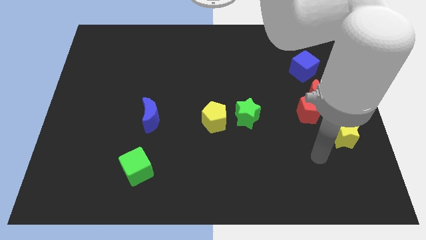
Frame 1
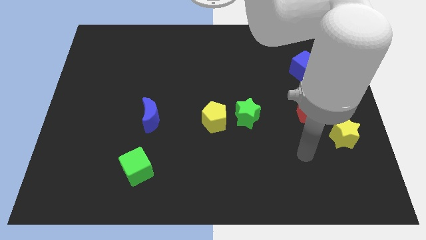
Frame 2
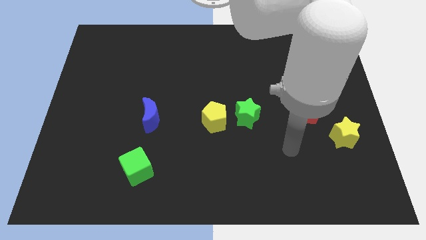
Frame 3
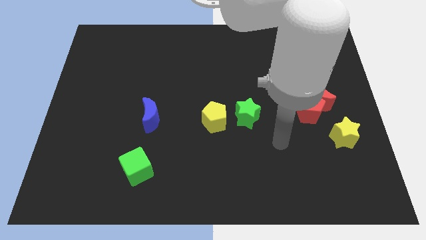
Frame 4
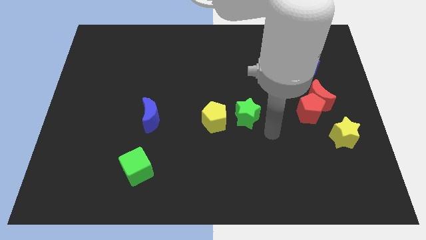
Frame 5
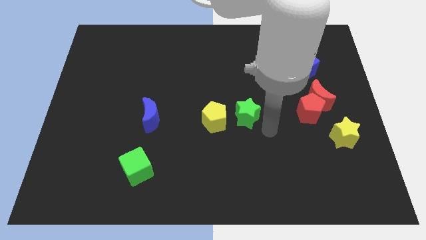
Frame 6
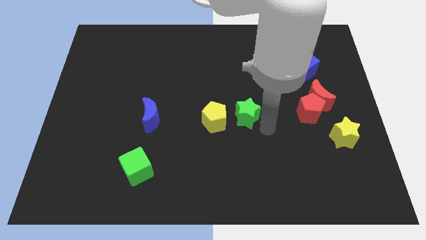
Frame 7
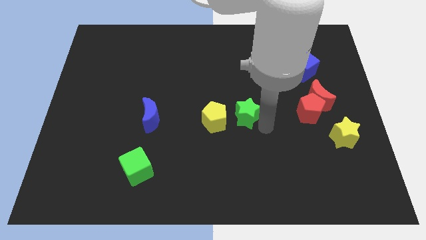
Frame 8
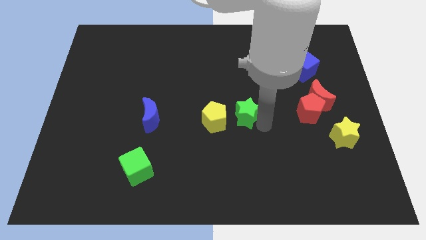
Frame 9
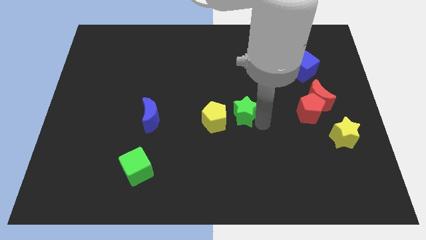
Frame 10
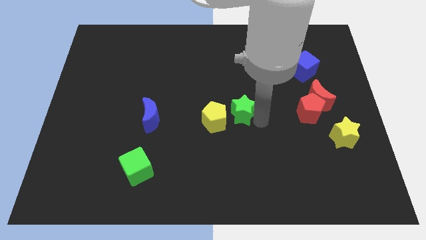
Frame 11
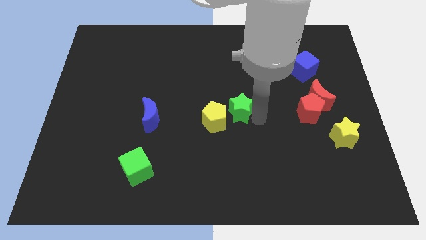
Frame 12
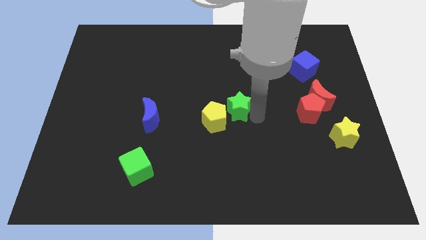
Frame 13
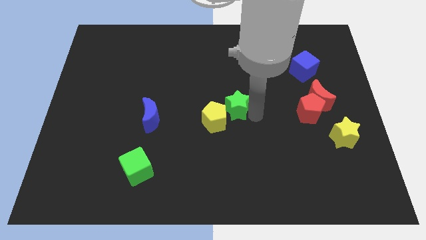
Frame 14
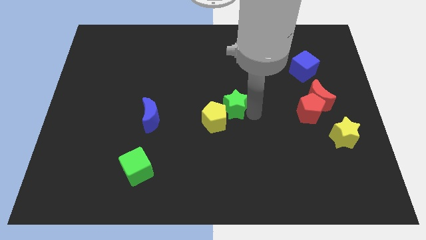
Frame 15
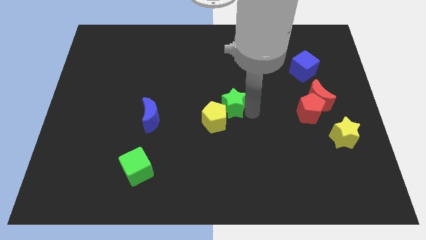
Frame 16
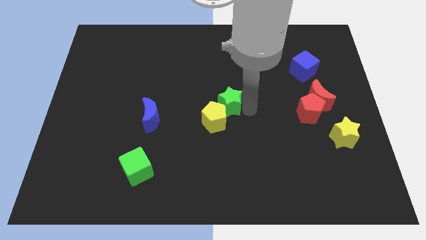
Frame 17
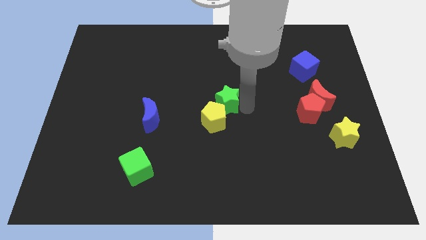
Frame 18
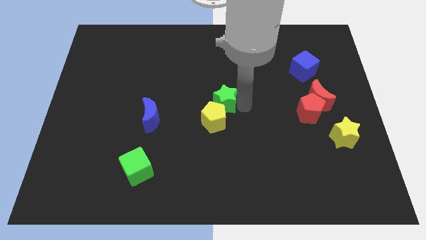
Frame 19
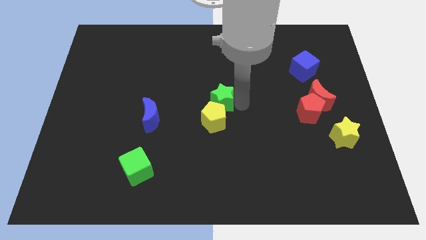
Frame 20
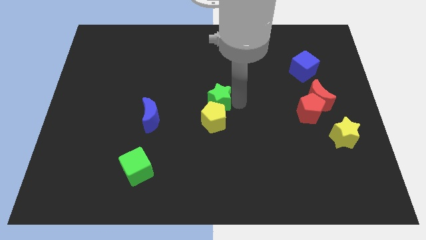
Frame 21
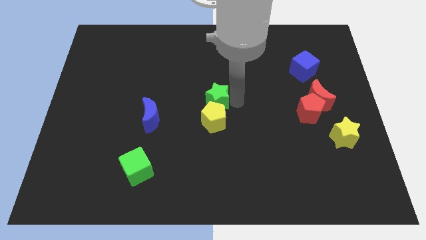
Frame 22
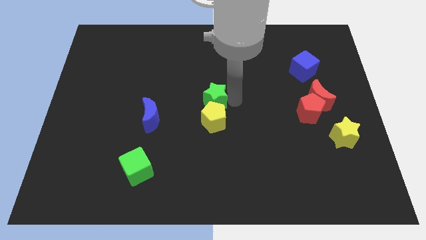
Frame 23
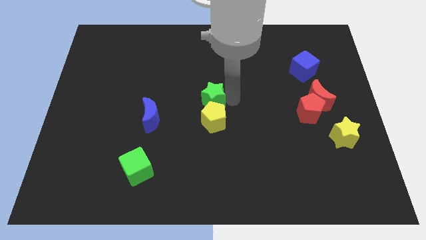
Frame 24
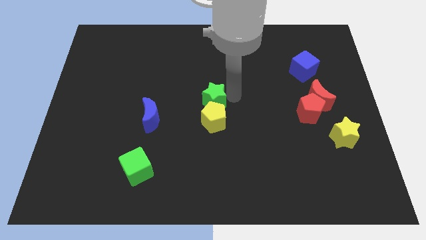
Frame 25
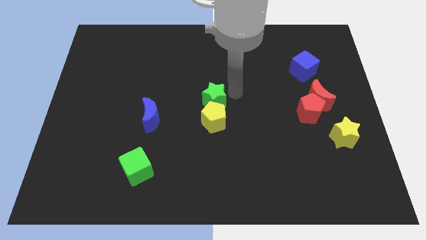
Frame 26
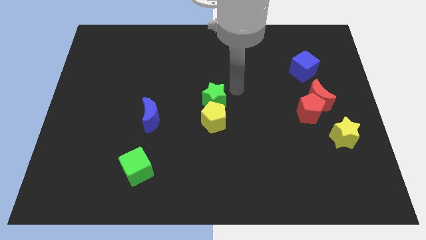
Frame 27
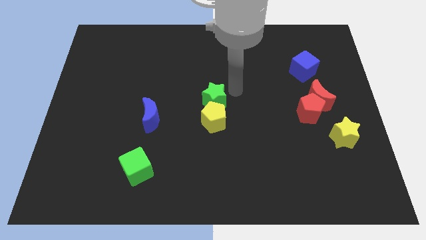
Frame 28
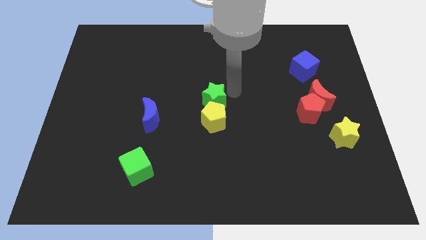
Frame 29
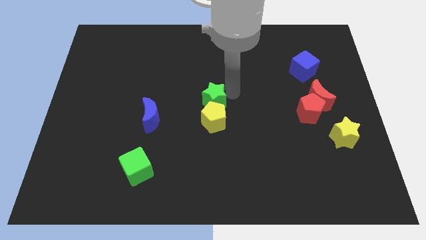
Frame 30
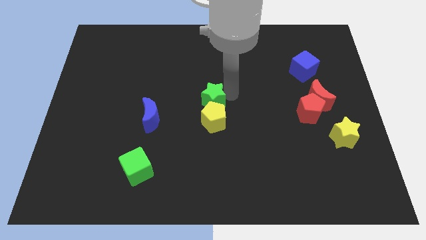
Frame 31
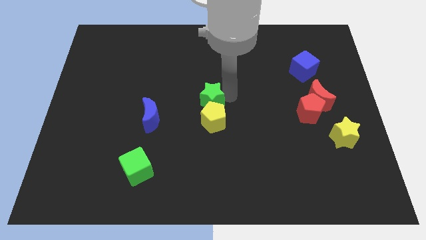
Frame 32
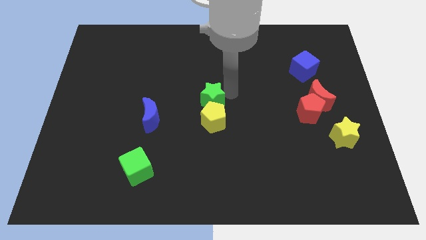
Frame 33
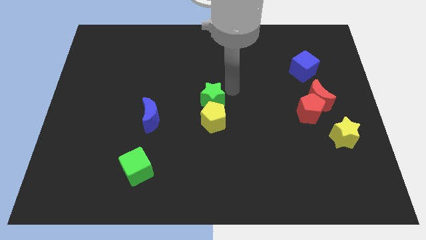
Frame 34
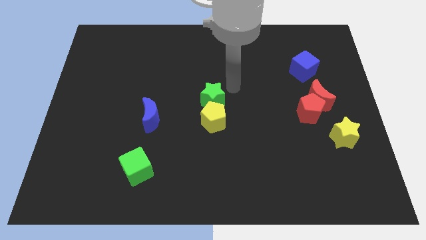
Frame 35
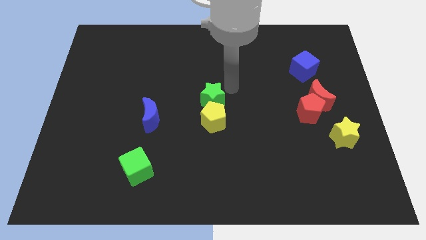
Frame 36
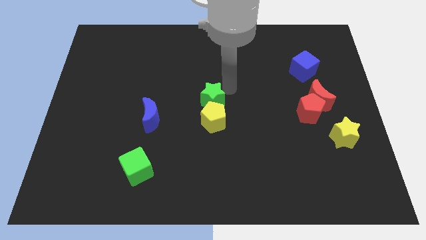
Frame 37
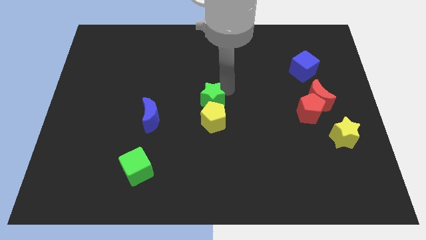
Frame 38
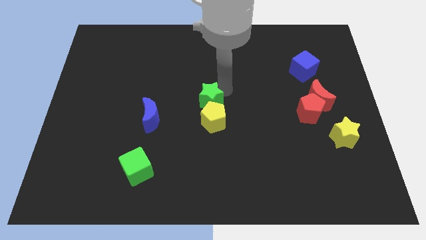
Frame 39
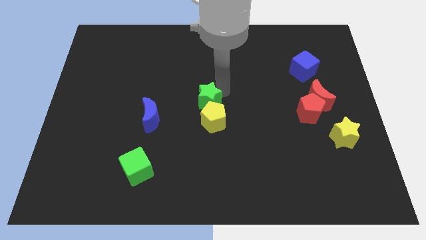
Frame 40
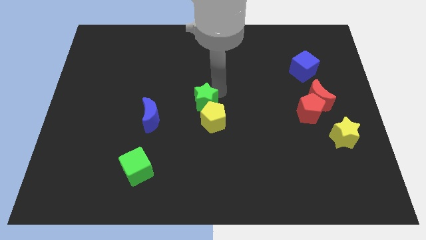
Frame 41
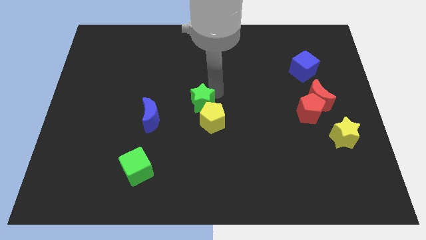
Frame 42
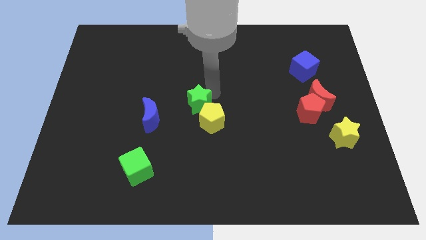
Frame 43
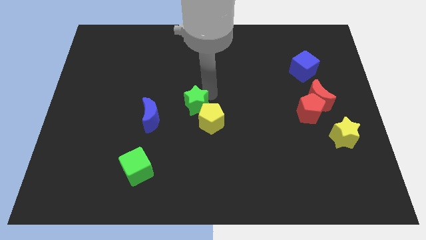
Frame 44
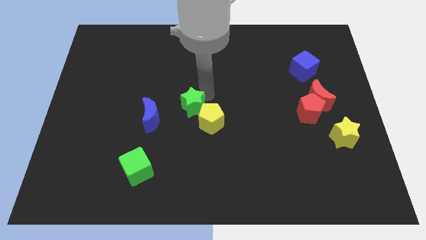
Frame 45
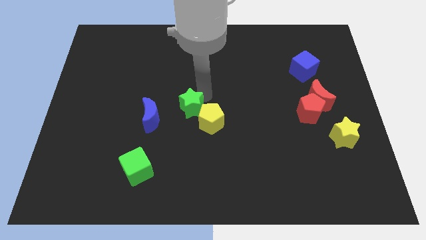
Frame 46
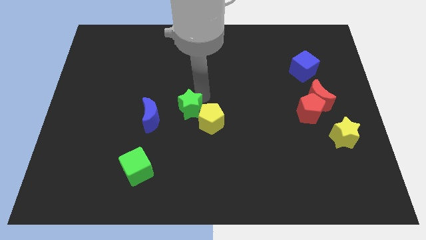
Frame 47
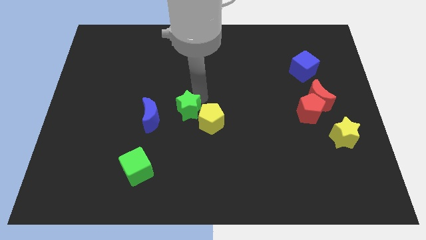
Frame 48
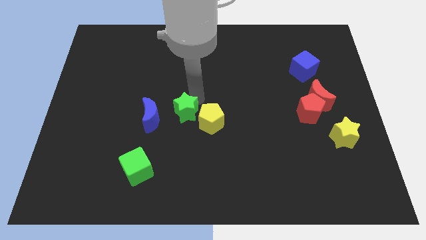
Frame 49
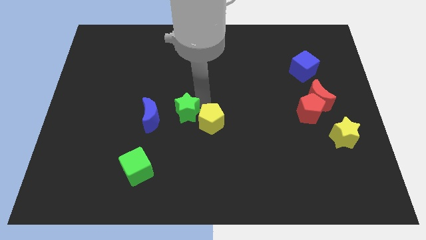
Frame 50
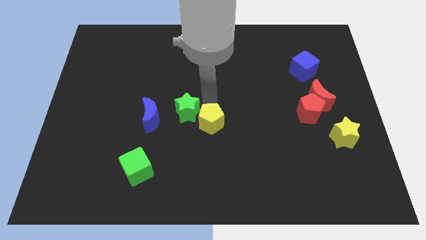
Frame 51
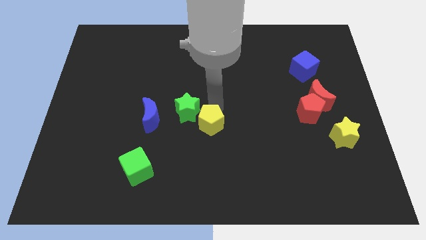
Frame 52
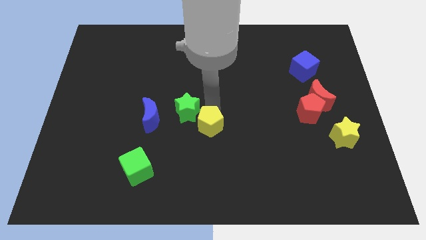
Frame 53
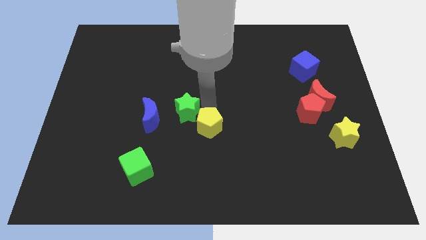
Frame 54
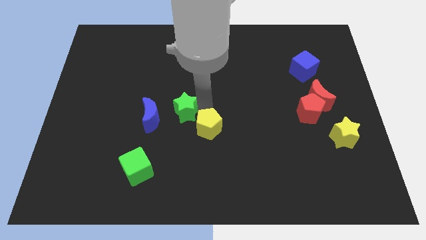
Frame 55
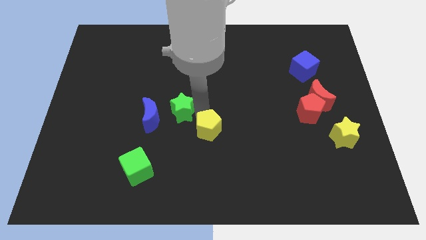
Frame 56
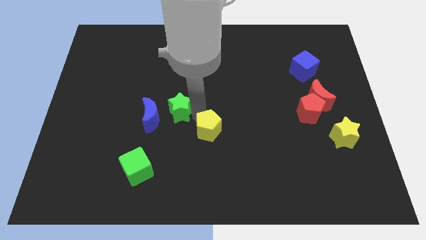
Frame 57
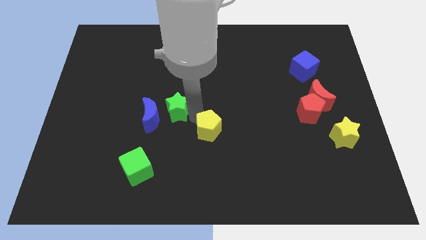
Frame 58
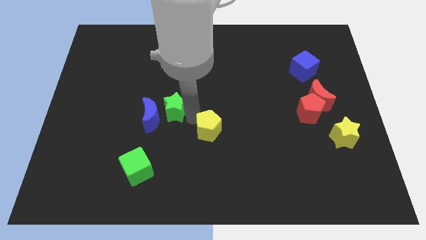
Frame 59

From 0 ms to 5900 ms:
put the green star to the blue moon

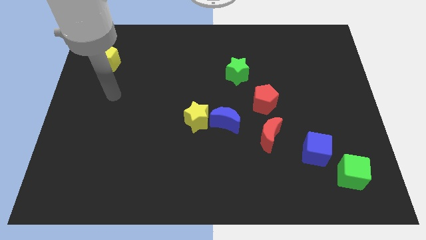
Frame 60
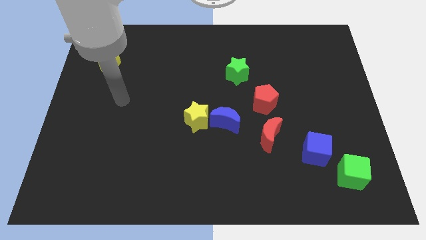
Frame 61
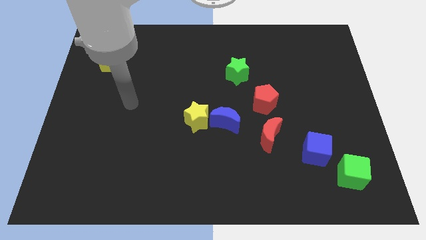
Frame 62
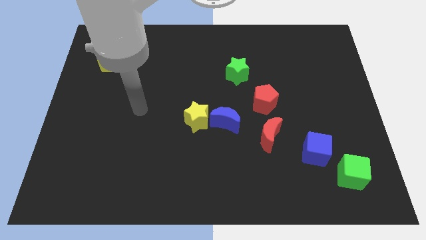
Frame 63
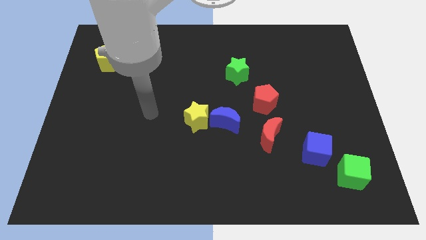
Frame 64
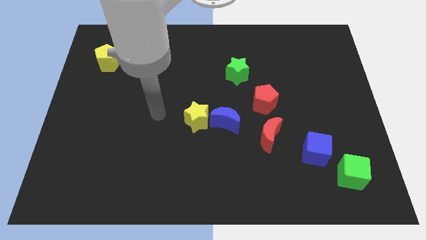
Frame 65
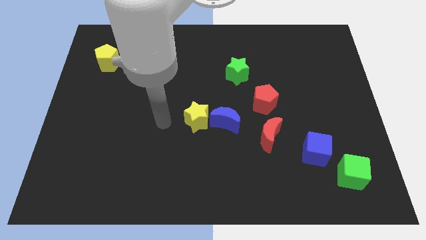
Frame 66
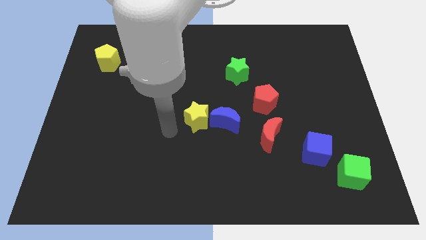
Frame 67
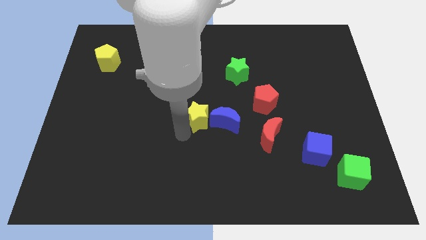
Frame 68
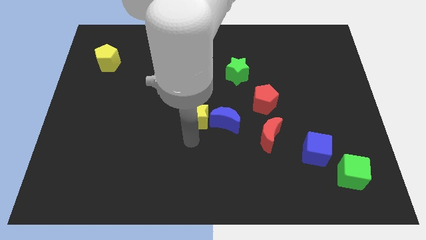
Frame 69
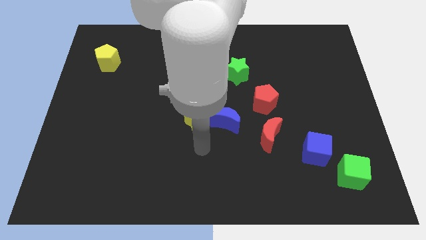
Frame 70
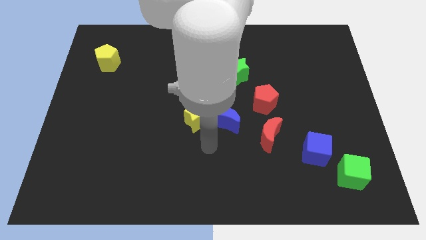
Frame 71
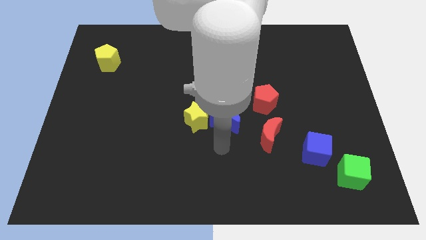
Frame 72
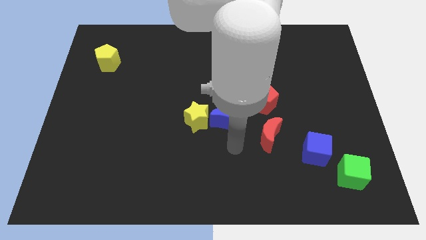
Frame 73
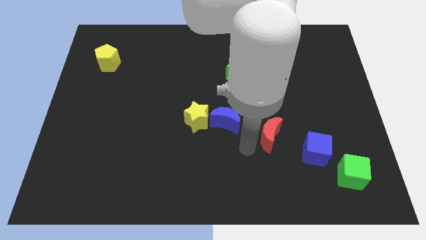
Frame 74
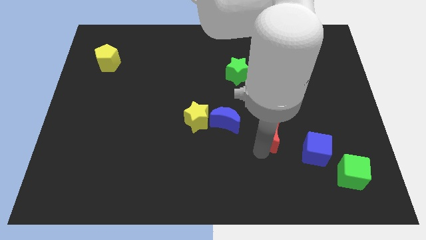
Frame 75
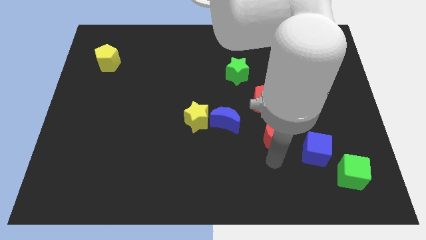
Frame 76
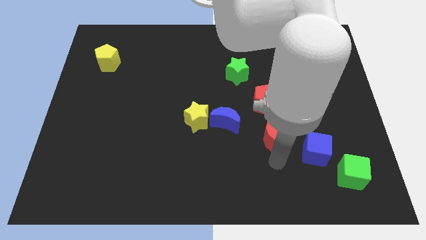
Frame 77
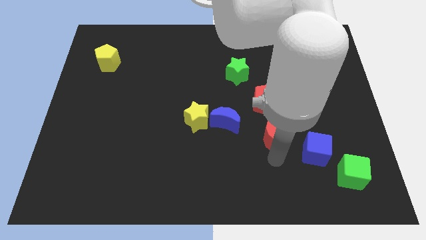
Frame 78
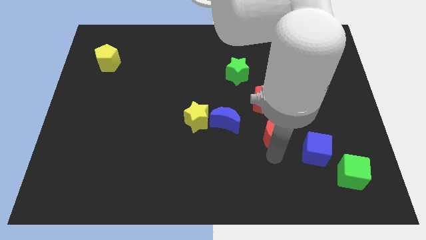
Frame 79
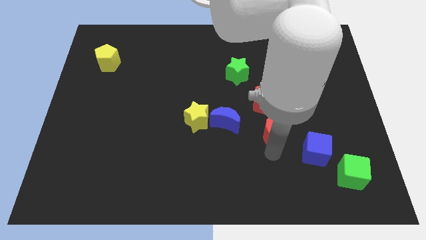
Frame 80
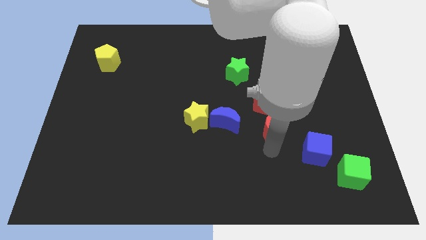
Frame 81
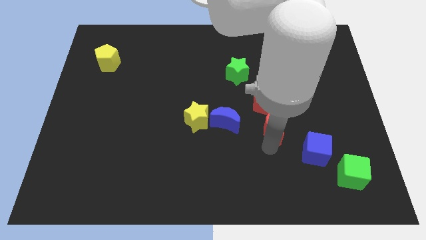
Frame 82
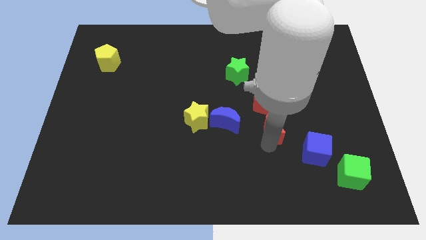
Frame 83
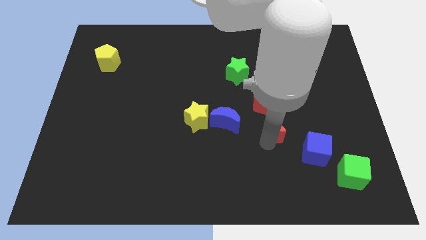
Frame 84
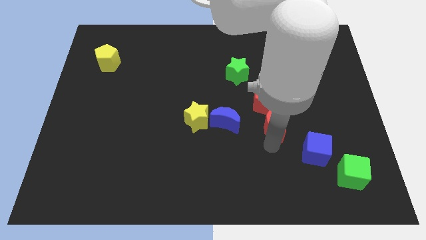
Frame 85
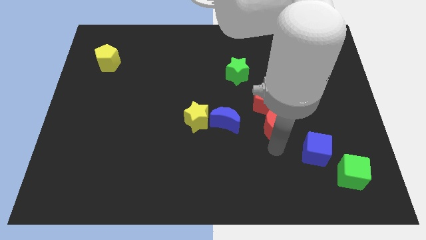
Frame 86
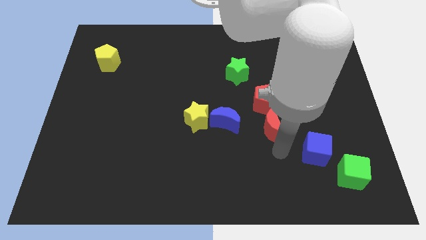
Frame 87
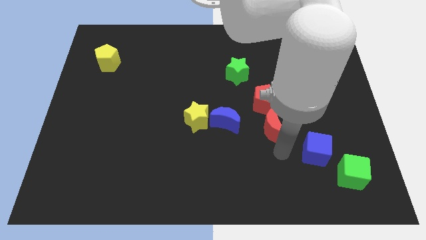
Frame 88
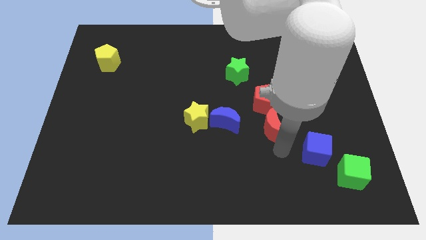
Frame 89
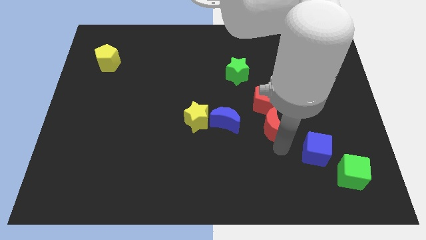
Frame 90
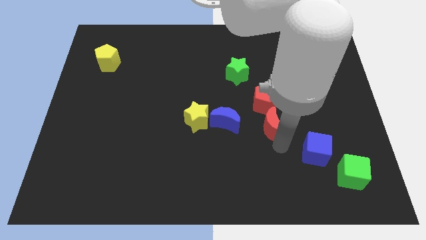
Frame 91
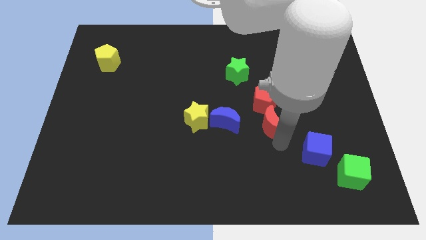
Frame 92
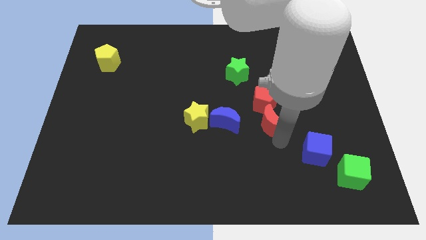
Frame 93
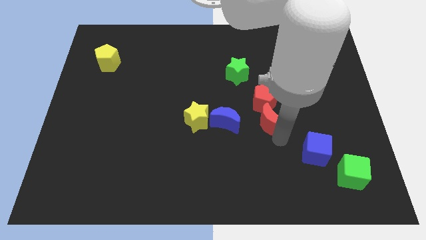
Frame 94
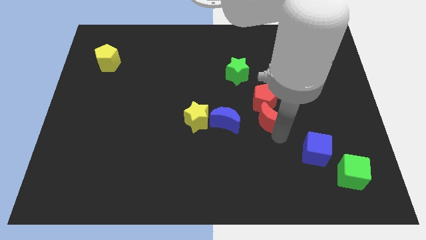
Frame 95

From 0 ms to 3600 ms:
slide the red moon to the red pentagon
